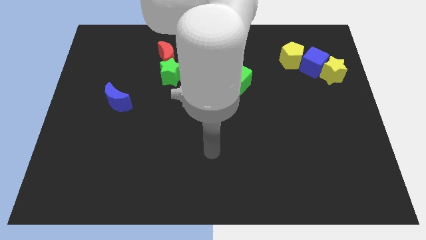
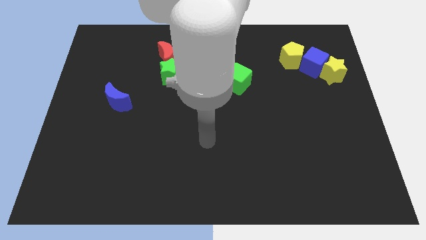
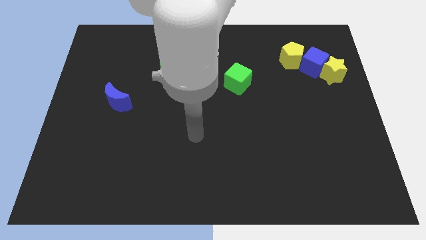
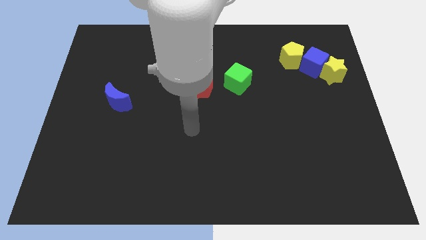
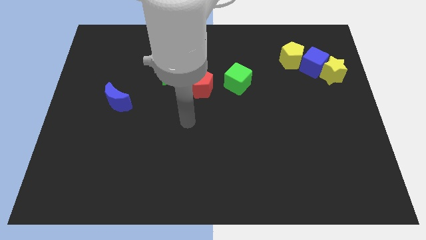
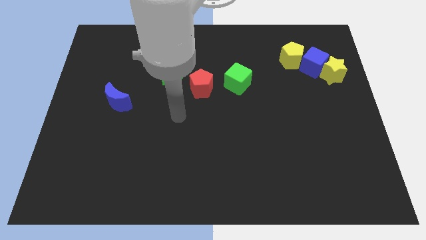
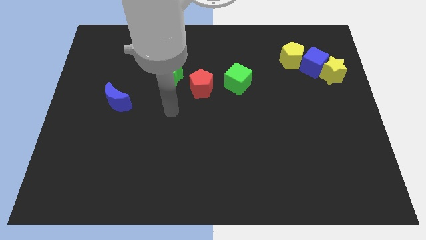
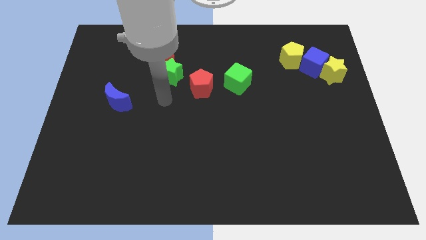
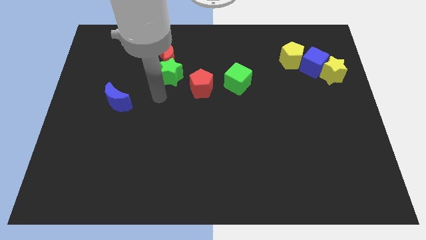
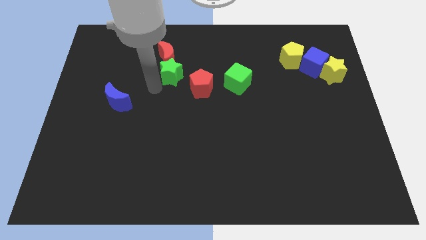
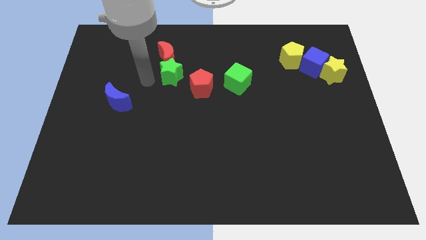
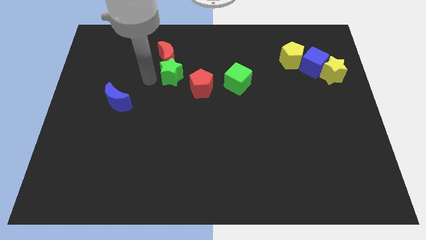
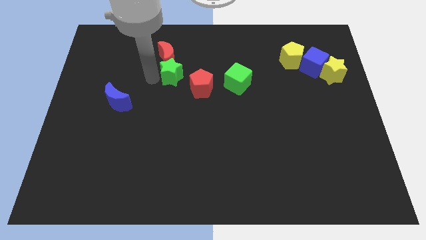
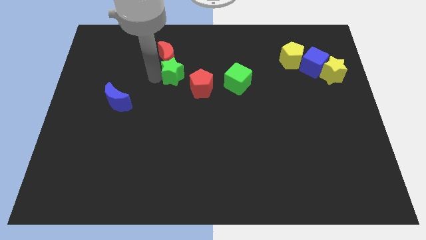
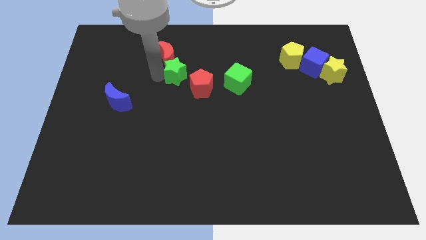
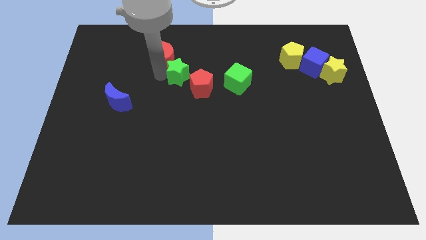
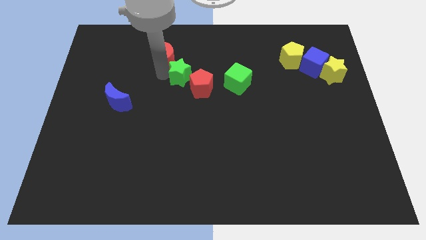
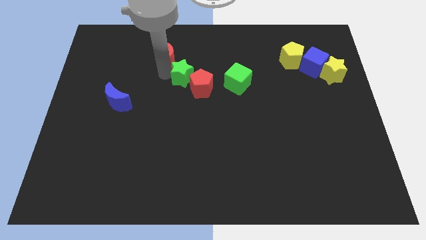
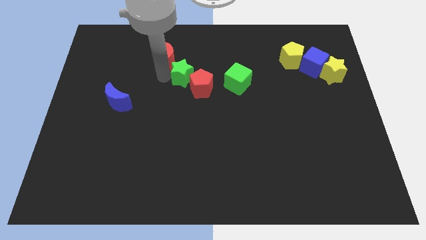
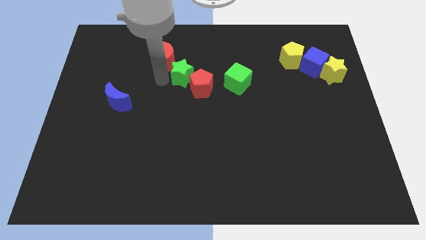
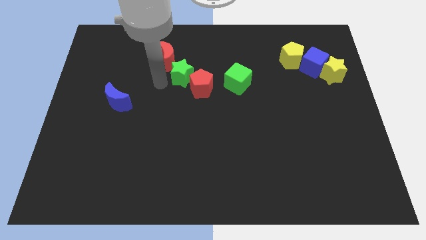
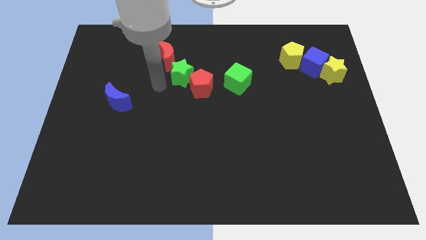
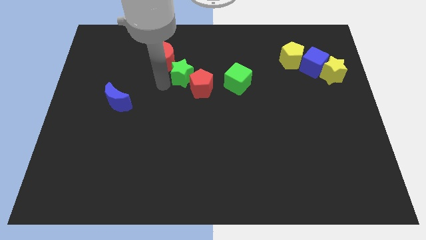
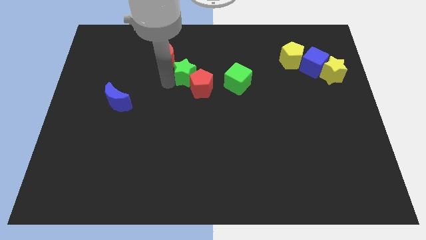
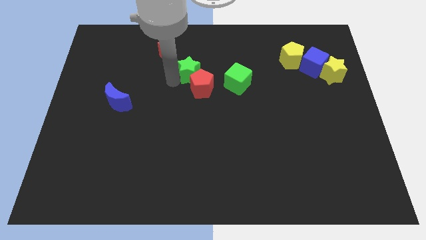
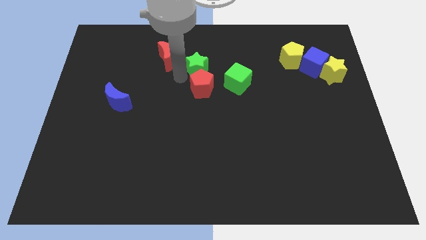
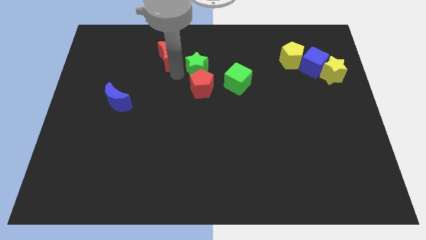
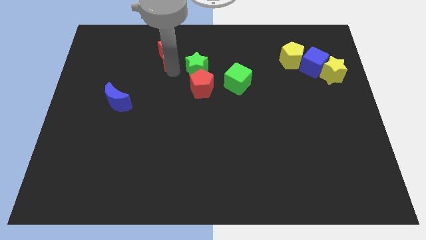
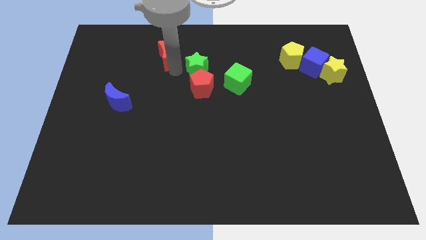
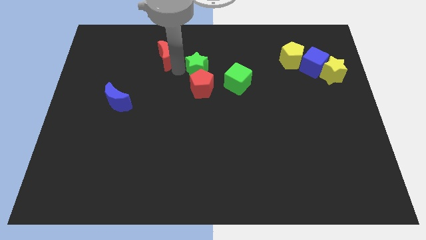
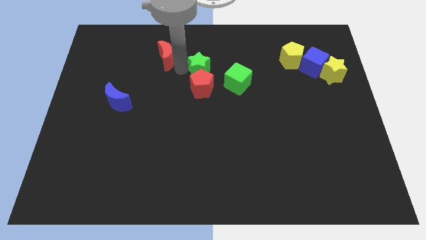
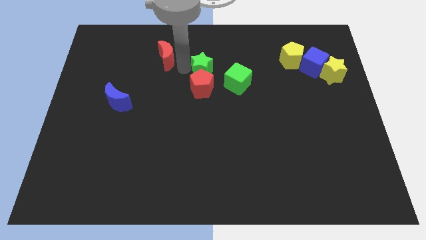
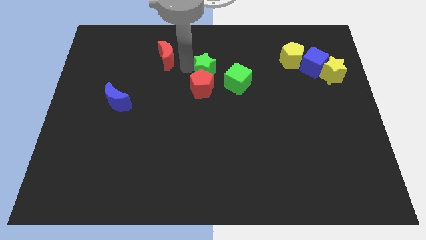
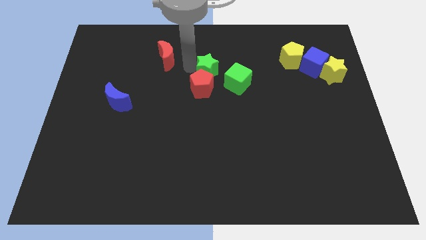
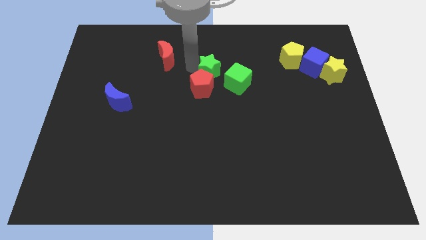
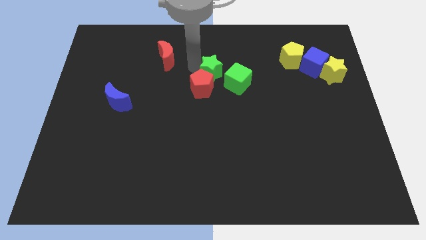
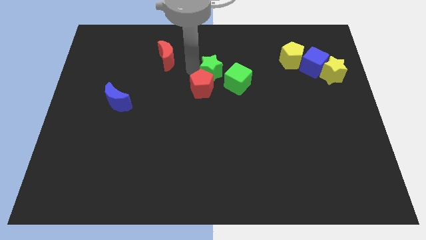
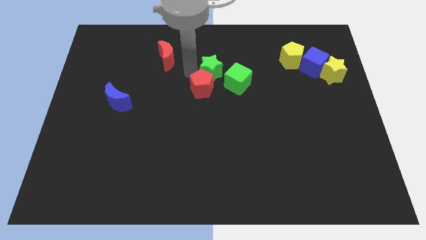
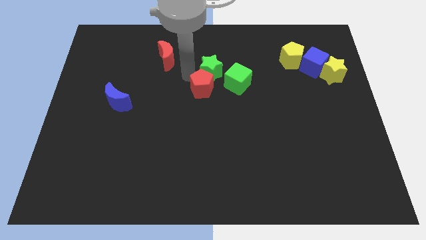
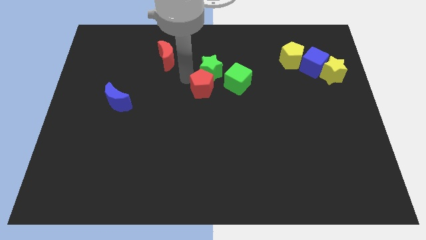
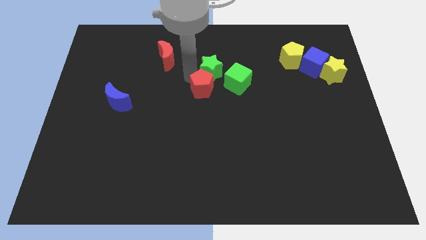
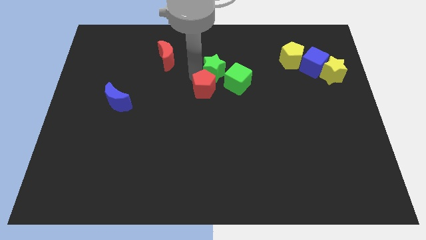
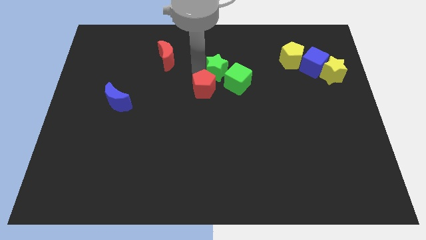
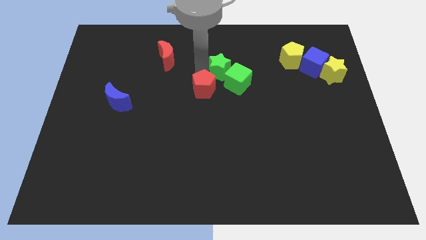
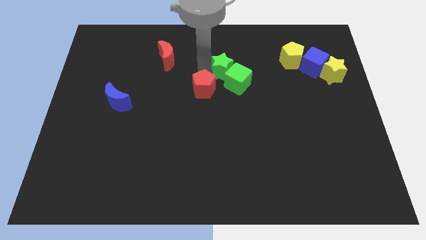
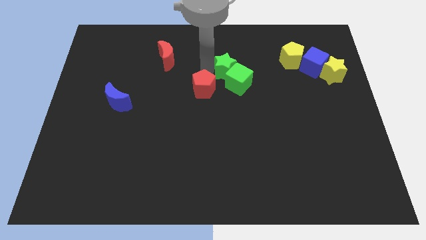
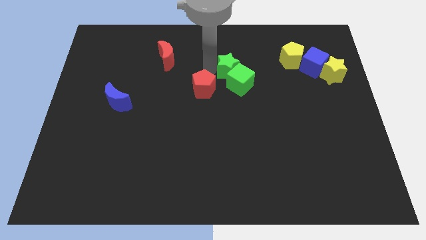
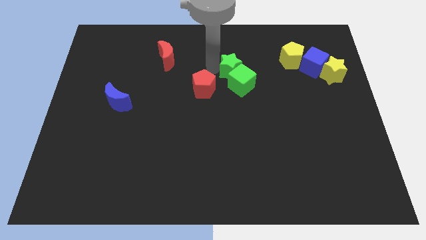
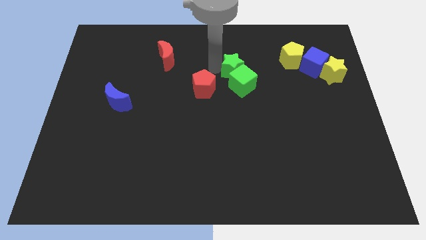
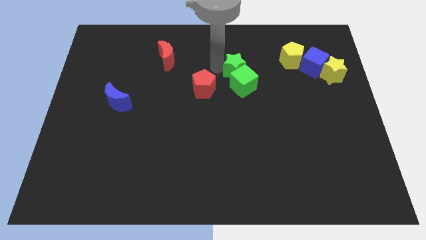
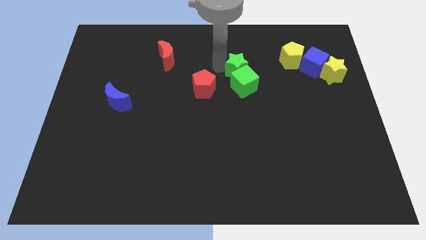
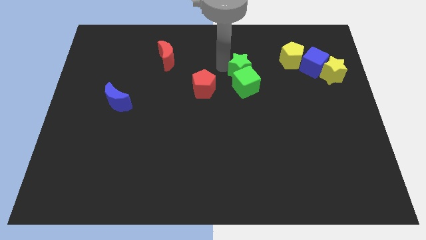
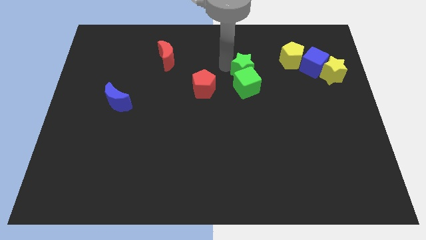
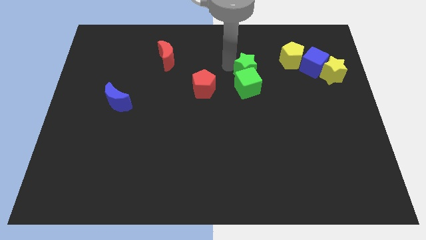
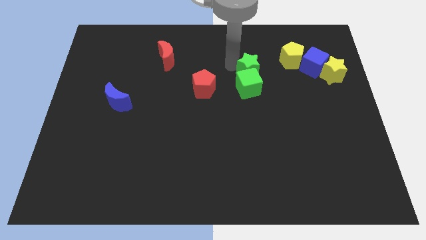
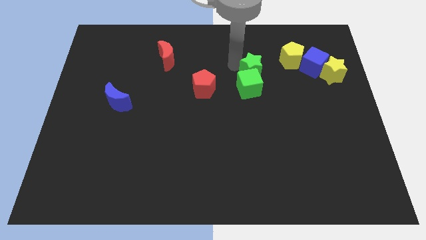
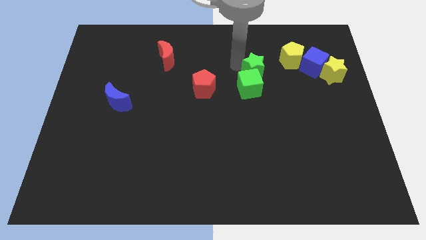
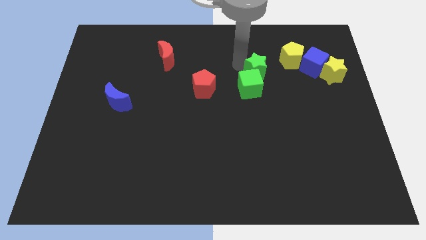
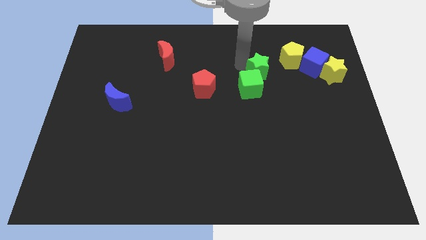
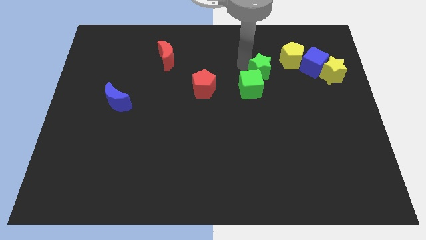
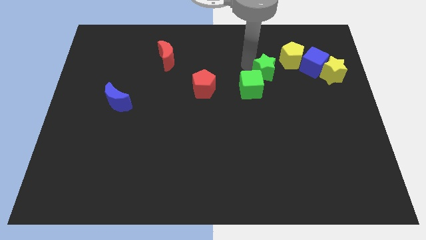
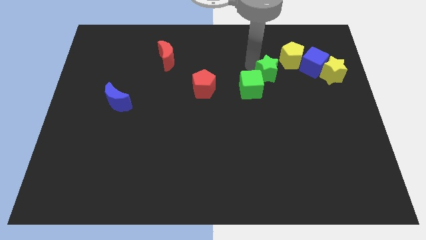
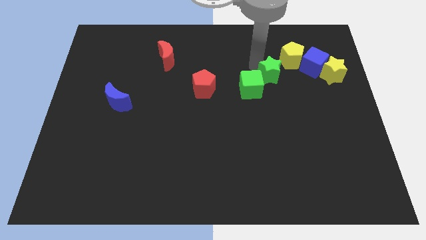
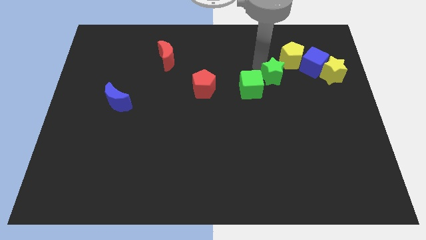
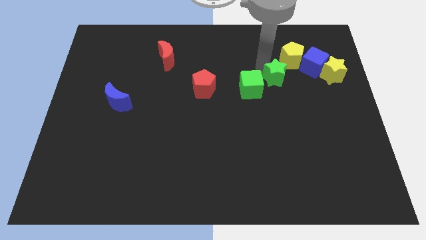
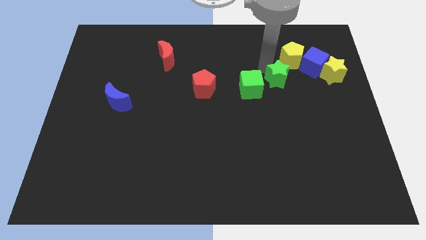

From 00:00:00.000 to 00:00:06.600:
push the green star below the yellow pentagon
